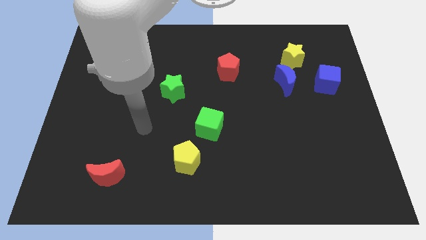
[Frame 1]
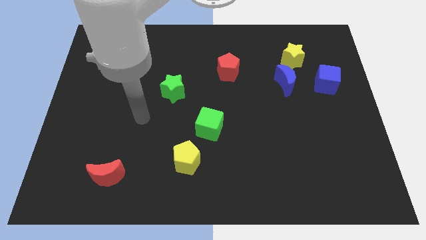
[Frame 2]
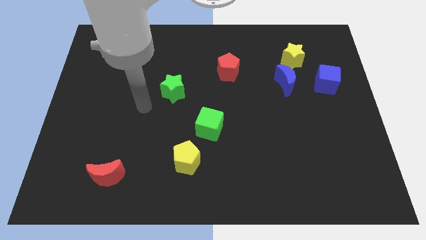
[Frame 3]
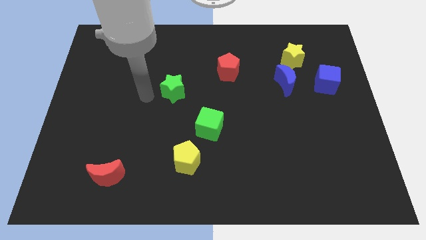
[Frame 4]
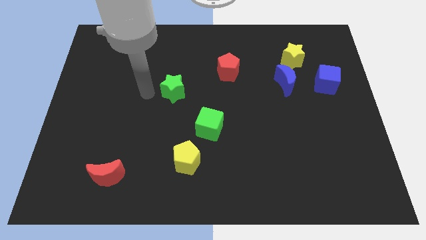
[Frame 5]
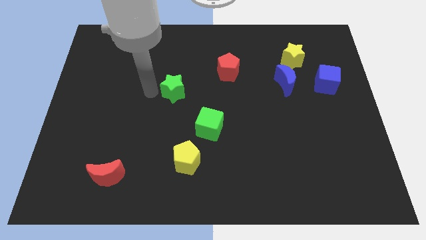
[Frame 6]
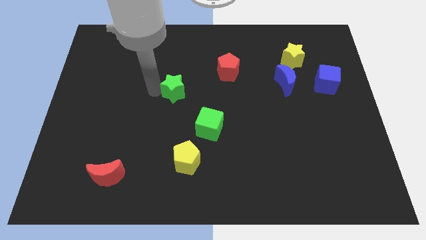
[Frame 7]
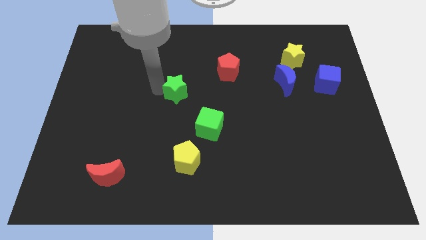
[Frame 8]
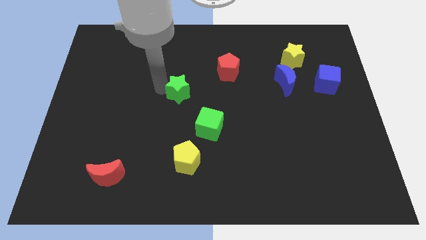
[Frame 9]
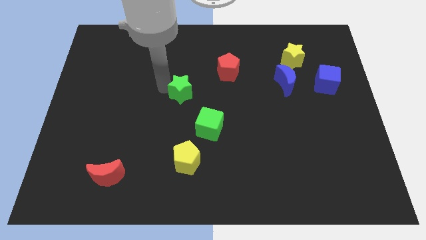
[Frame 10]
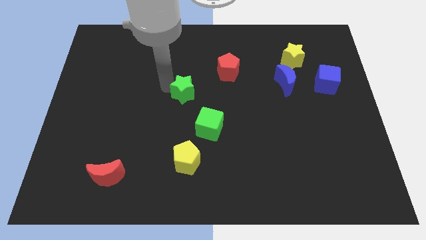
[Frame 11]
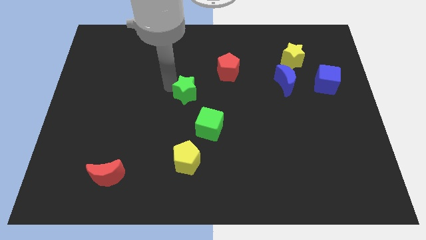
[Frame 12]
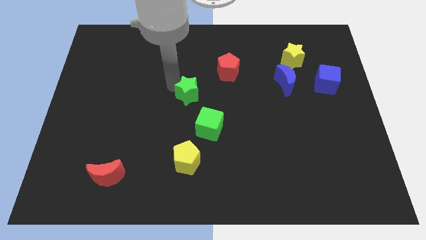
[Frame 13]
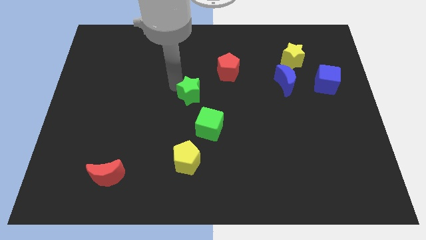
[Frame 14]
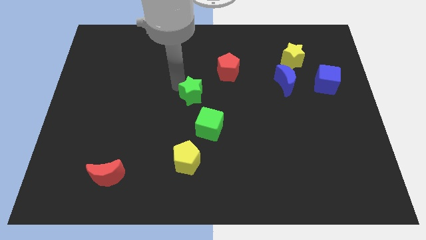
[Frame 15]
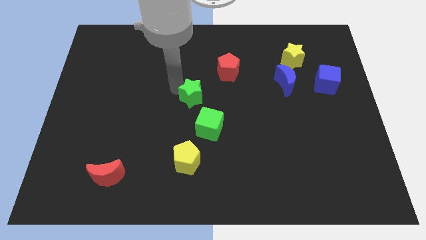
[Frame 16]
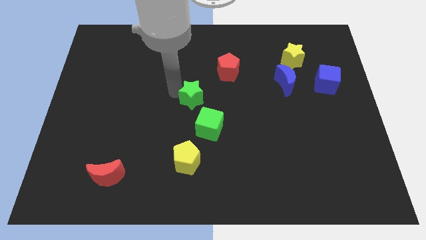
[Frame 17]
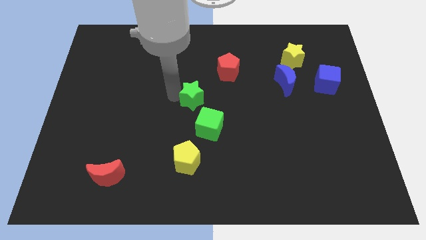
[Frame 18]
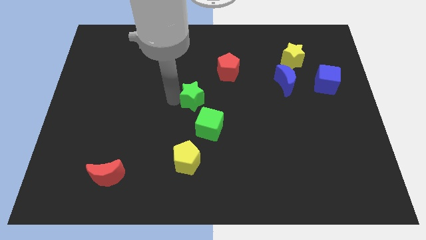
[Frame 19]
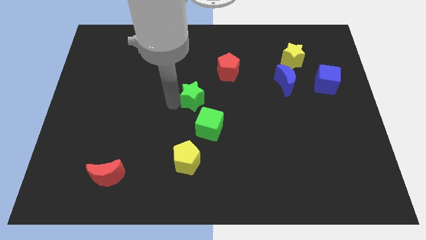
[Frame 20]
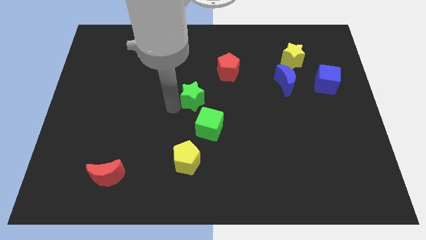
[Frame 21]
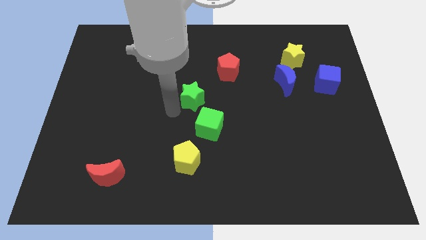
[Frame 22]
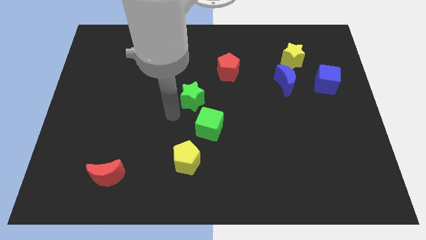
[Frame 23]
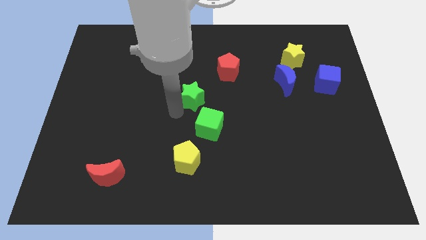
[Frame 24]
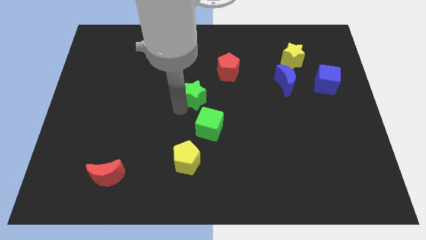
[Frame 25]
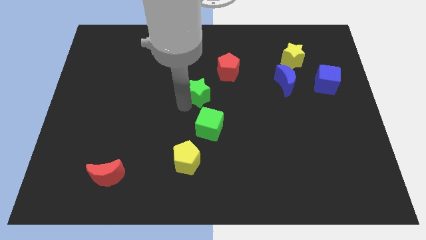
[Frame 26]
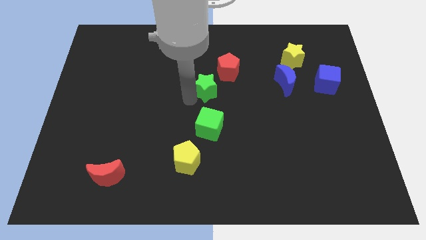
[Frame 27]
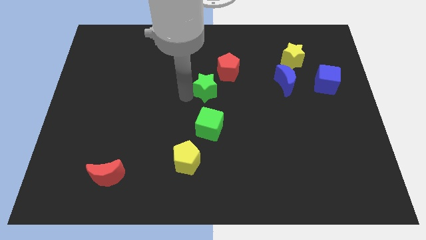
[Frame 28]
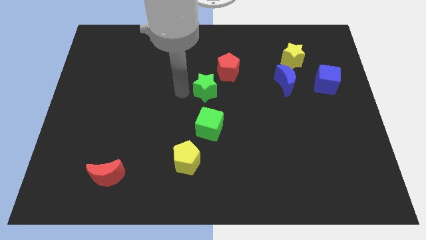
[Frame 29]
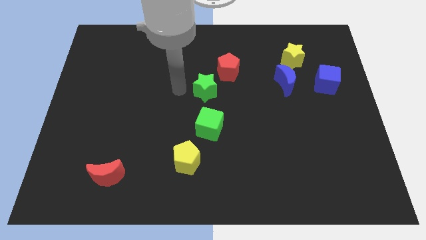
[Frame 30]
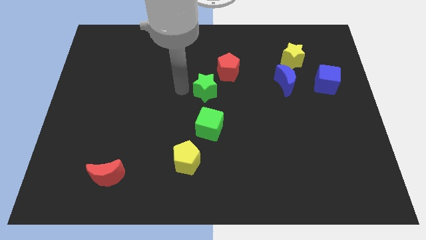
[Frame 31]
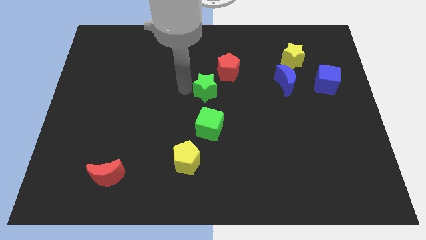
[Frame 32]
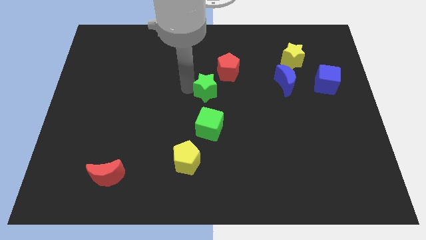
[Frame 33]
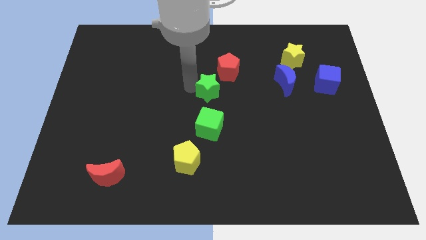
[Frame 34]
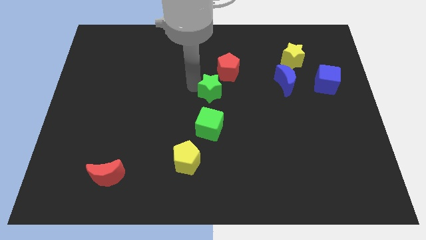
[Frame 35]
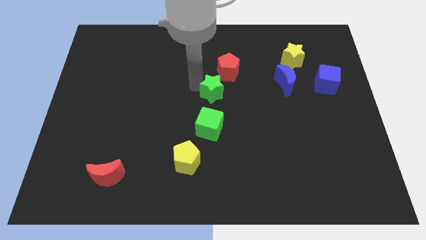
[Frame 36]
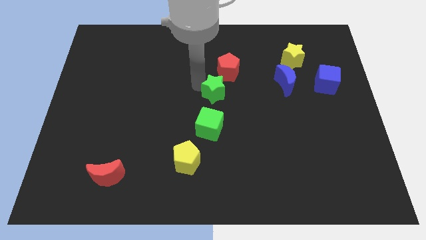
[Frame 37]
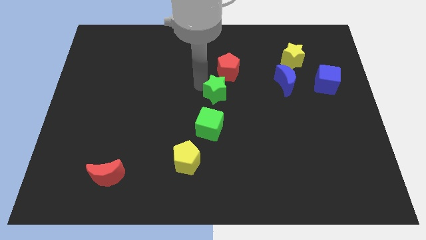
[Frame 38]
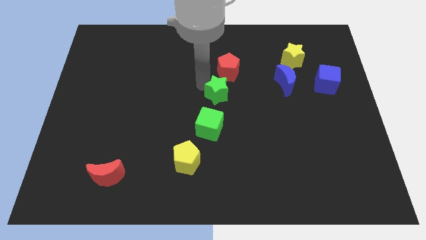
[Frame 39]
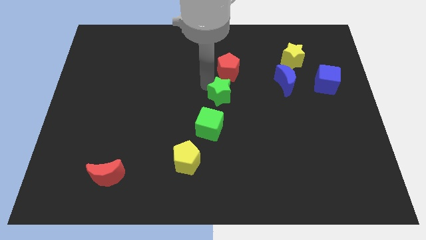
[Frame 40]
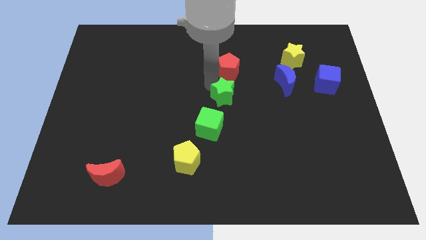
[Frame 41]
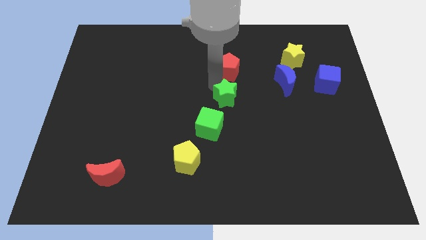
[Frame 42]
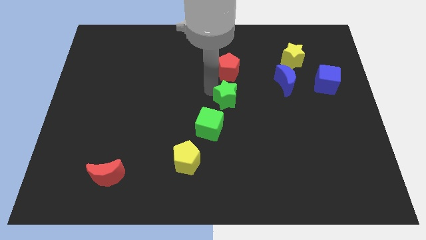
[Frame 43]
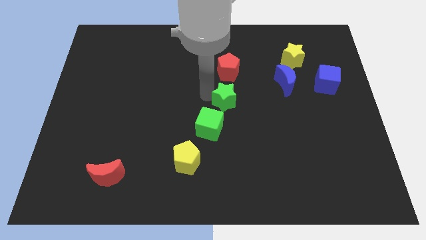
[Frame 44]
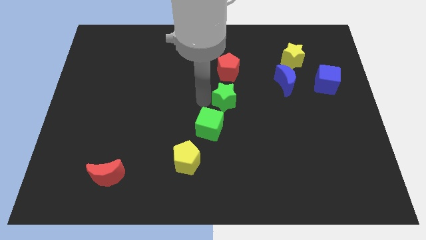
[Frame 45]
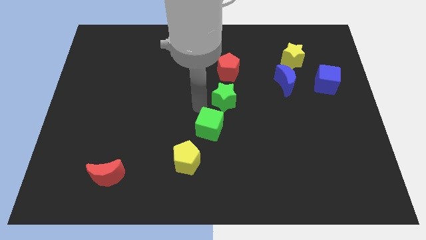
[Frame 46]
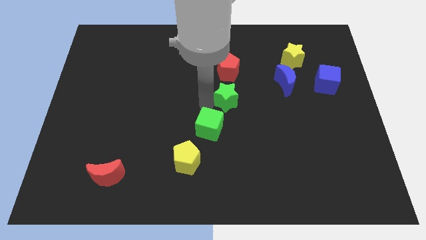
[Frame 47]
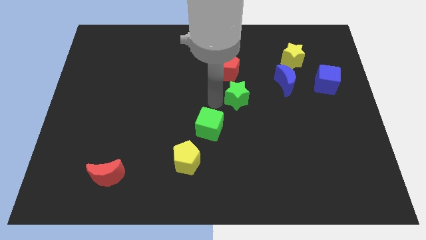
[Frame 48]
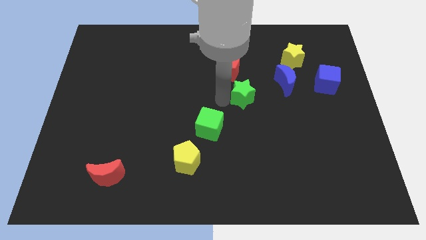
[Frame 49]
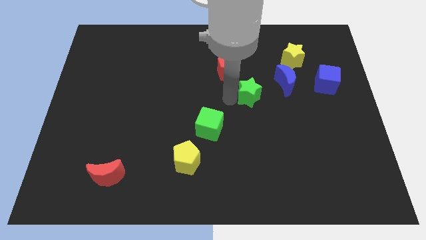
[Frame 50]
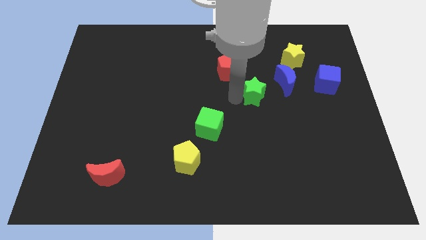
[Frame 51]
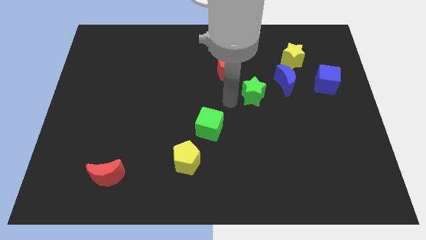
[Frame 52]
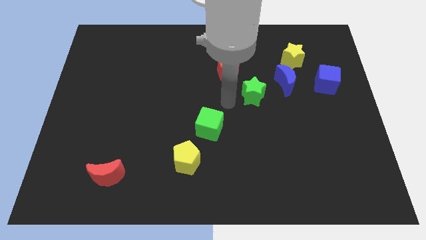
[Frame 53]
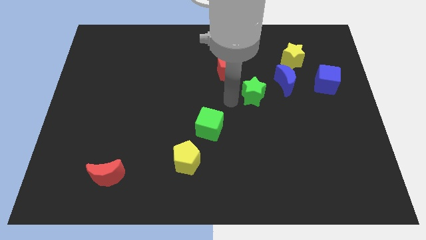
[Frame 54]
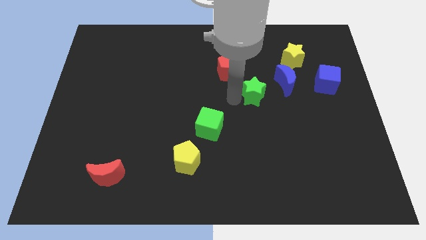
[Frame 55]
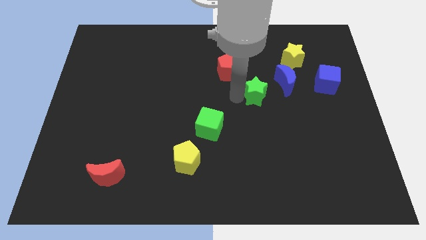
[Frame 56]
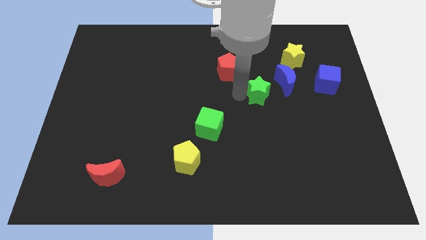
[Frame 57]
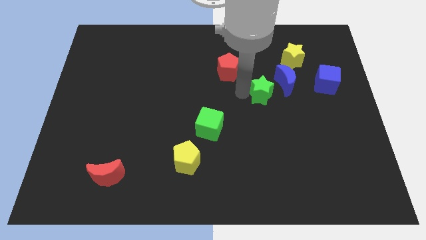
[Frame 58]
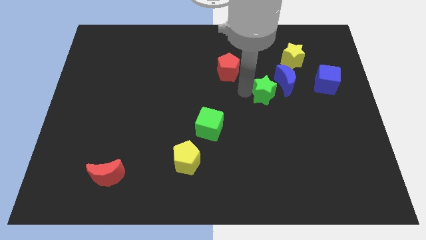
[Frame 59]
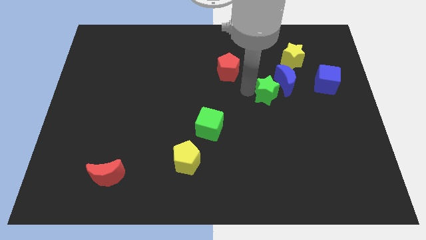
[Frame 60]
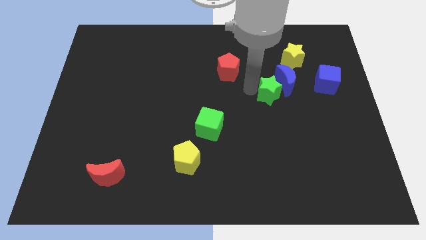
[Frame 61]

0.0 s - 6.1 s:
push the green star close to the blue moon

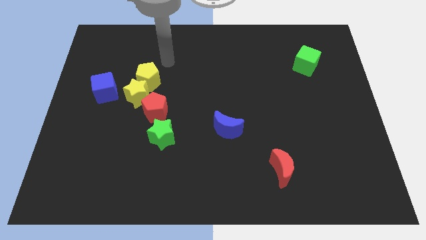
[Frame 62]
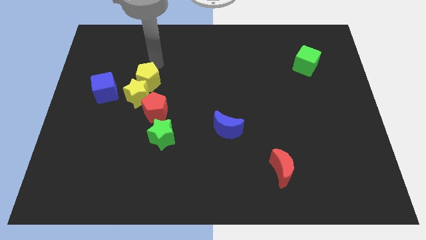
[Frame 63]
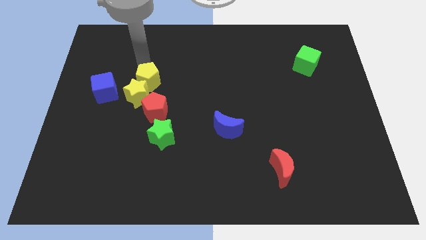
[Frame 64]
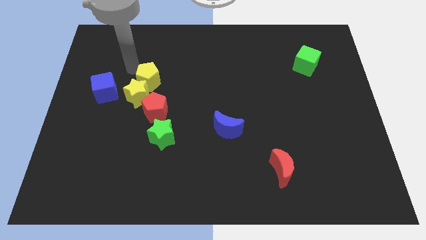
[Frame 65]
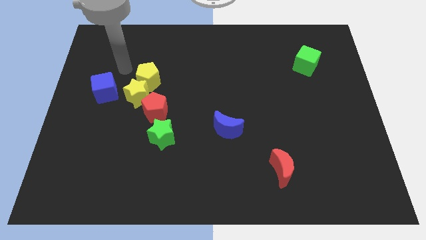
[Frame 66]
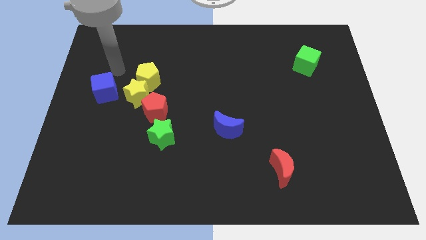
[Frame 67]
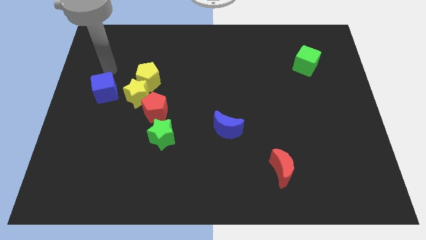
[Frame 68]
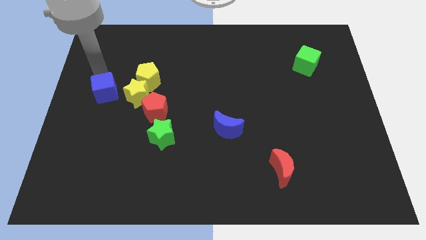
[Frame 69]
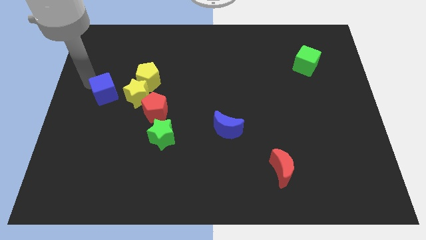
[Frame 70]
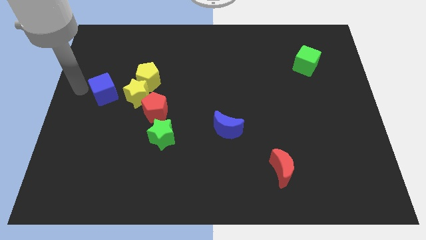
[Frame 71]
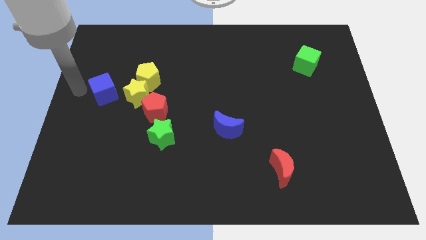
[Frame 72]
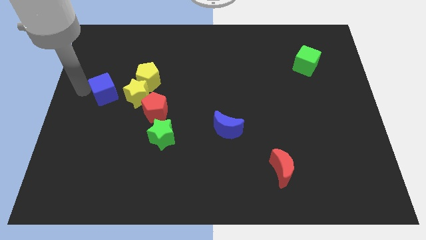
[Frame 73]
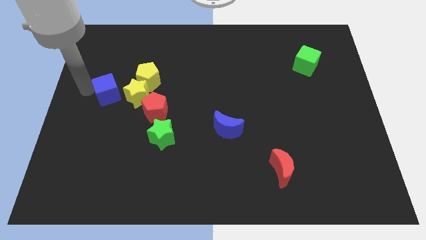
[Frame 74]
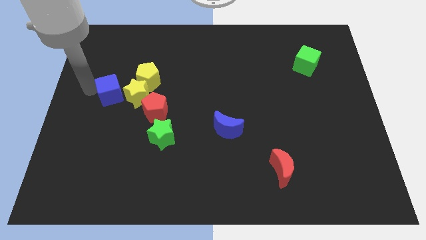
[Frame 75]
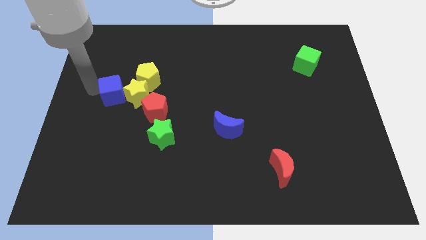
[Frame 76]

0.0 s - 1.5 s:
move the blue cube next to the yellow star
